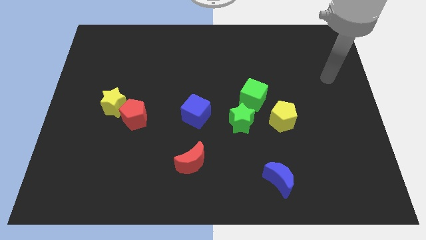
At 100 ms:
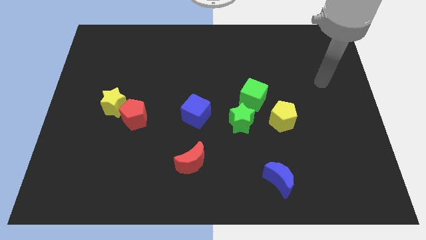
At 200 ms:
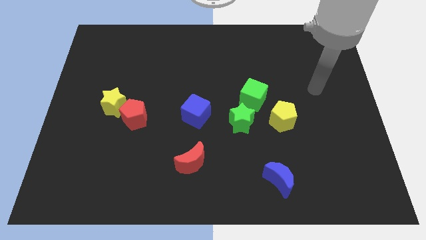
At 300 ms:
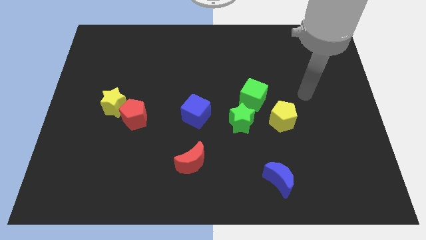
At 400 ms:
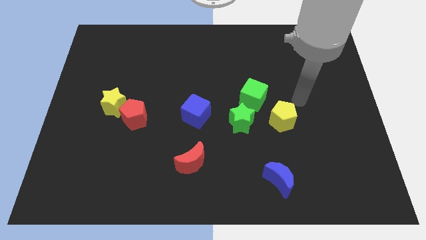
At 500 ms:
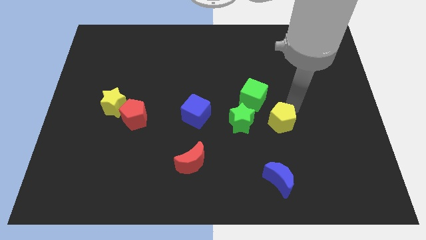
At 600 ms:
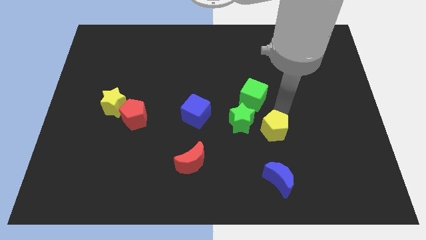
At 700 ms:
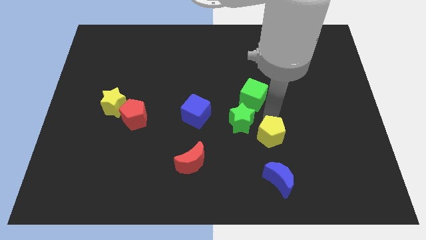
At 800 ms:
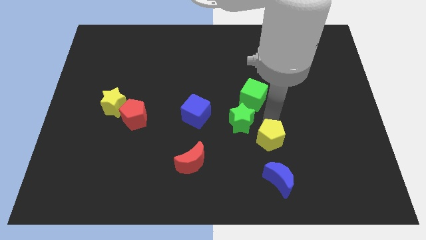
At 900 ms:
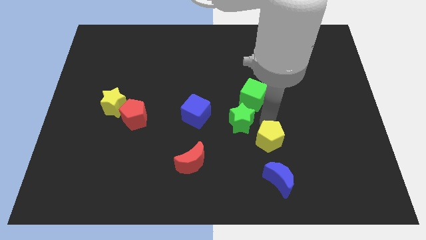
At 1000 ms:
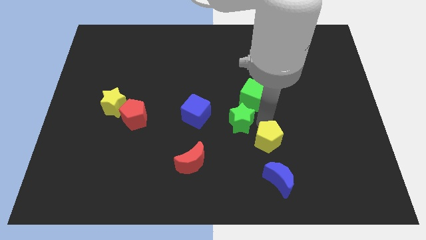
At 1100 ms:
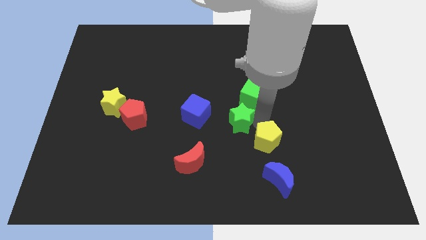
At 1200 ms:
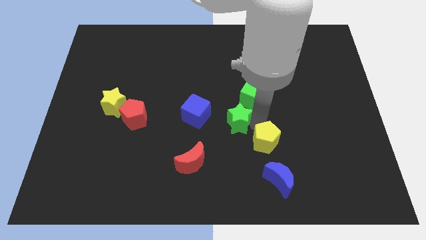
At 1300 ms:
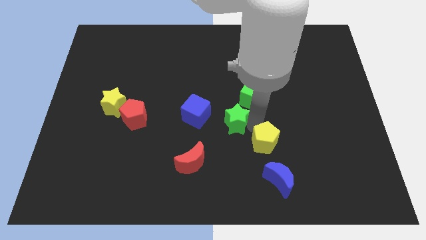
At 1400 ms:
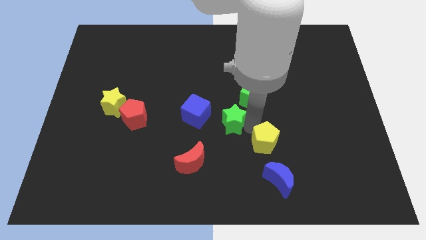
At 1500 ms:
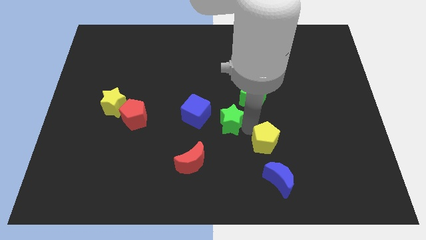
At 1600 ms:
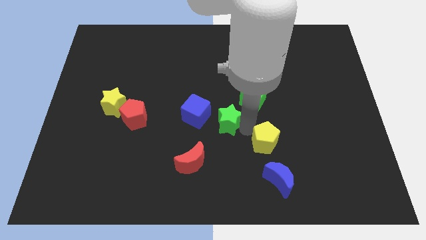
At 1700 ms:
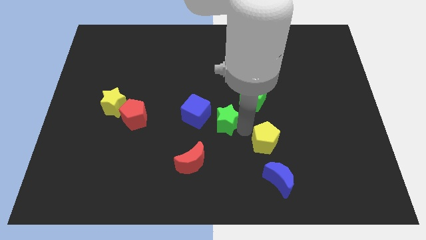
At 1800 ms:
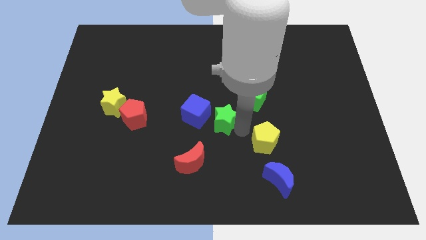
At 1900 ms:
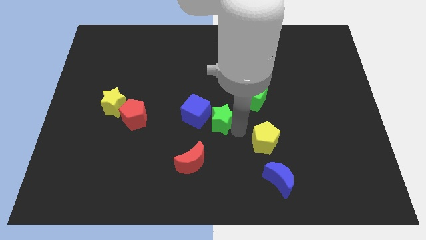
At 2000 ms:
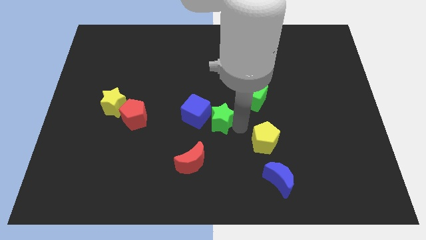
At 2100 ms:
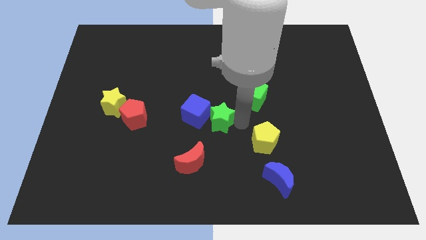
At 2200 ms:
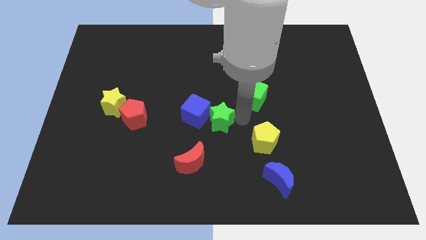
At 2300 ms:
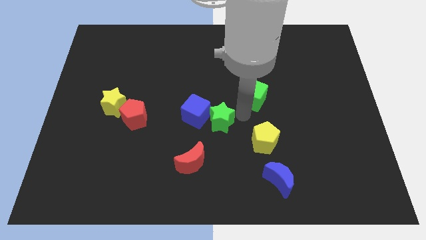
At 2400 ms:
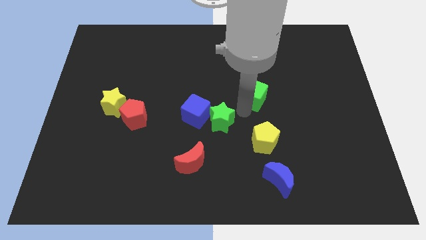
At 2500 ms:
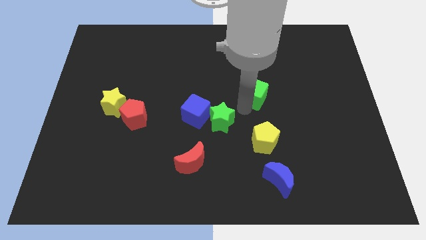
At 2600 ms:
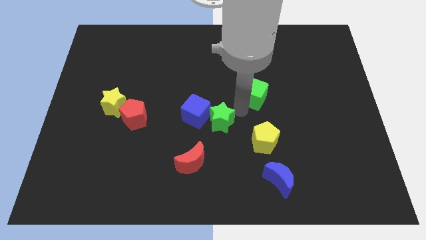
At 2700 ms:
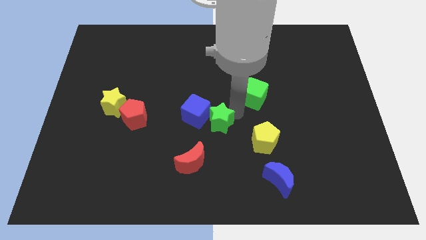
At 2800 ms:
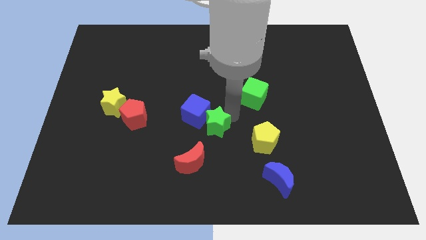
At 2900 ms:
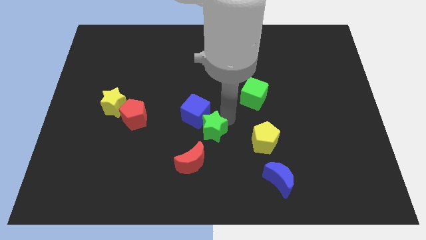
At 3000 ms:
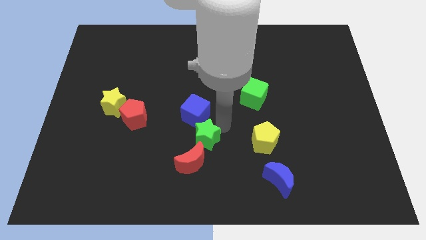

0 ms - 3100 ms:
move the green star to the left a little

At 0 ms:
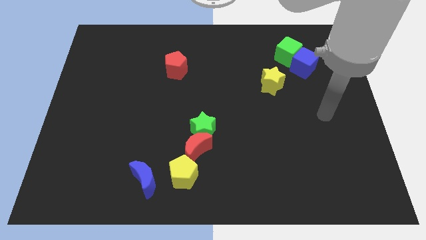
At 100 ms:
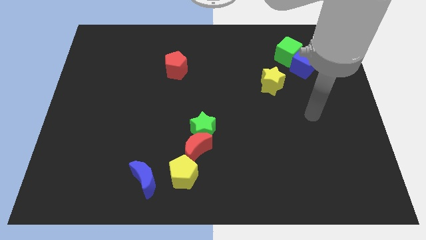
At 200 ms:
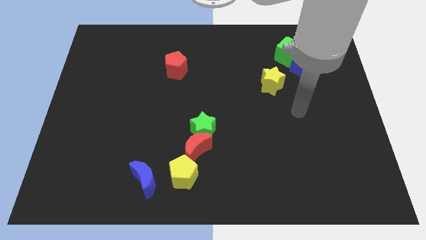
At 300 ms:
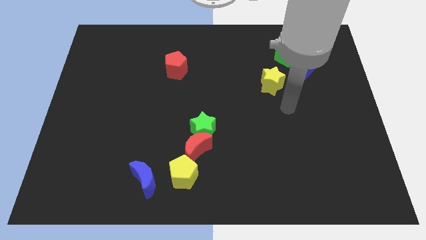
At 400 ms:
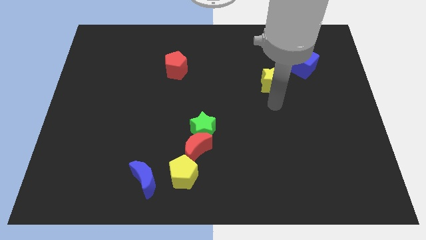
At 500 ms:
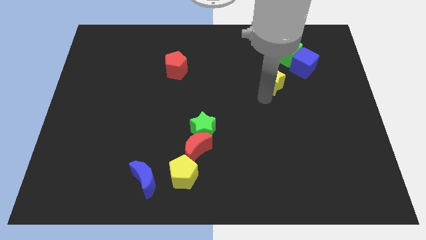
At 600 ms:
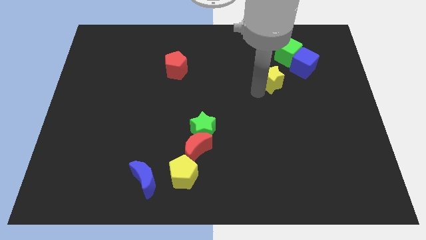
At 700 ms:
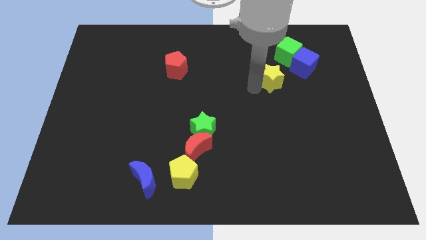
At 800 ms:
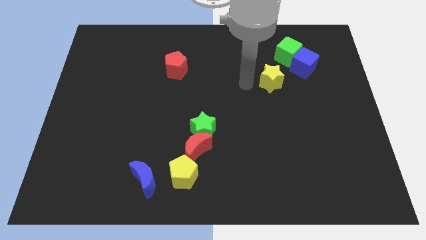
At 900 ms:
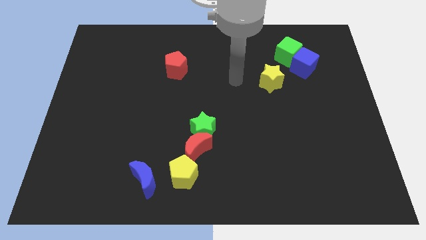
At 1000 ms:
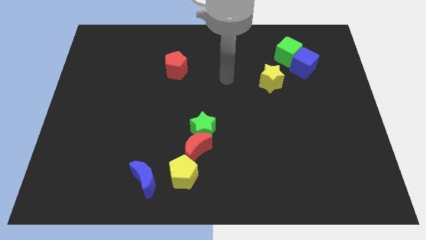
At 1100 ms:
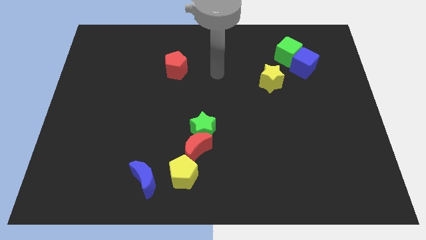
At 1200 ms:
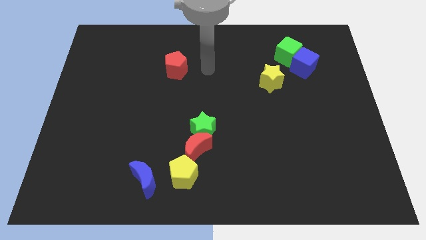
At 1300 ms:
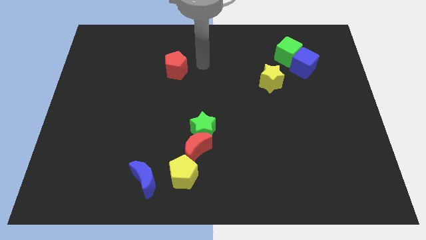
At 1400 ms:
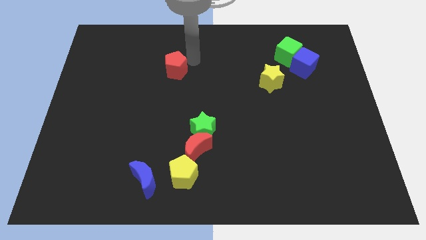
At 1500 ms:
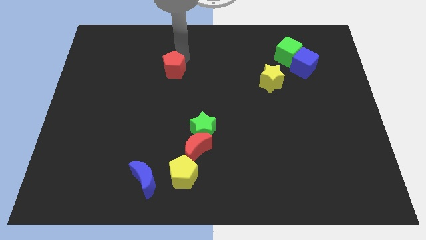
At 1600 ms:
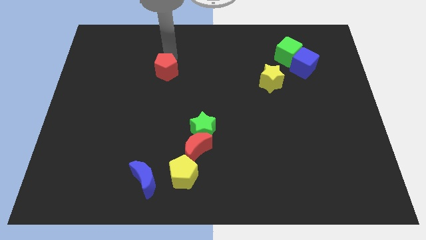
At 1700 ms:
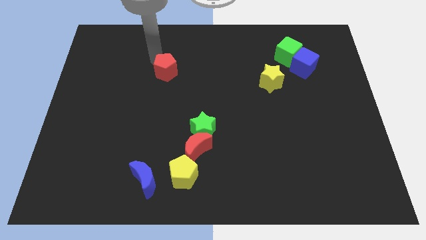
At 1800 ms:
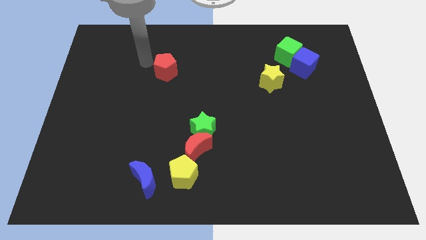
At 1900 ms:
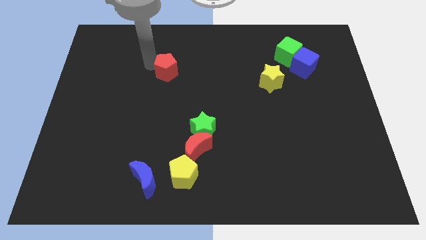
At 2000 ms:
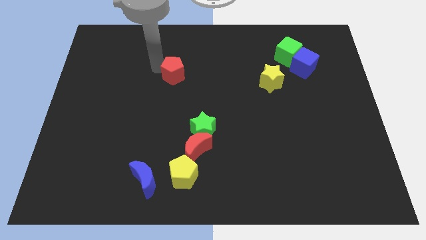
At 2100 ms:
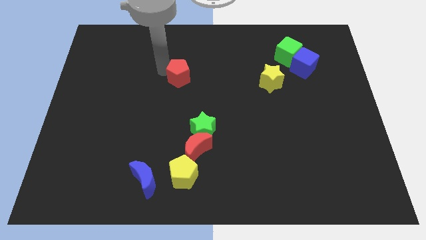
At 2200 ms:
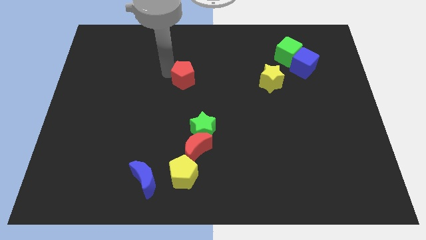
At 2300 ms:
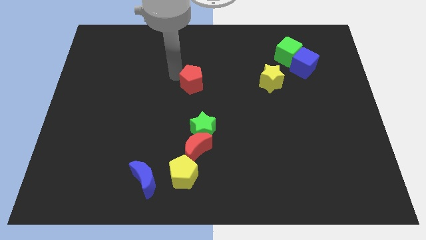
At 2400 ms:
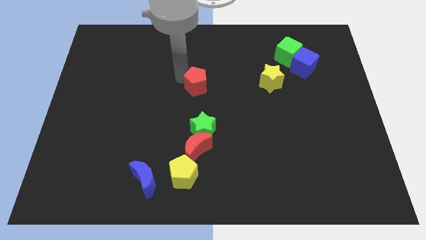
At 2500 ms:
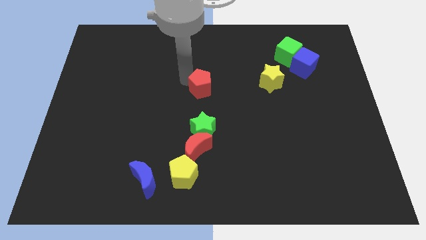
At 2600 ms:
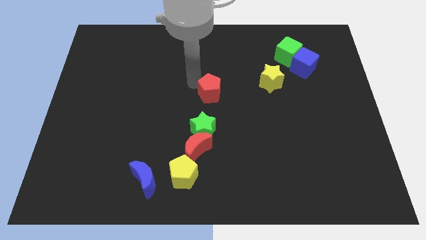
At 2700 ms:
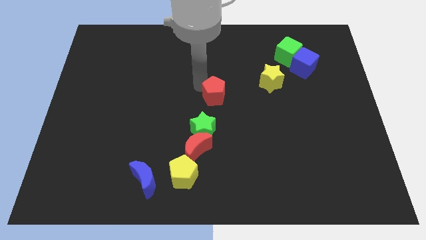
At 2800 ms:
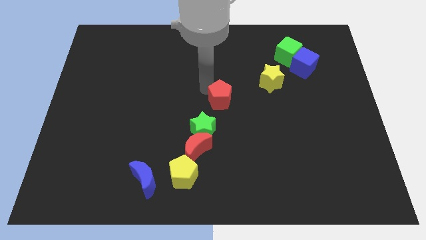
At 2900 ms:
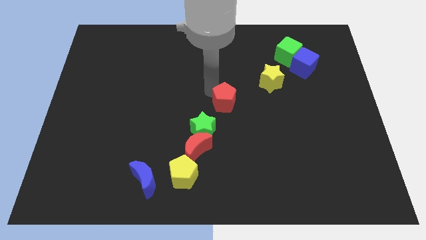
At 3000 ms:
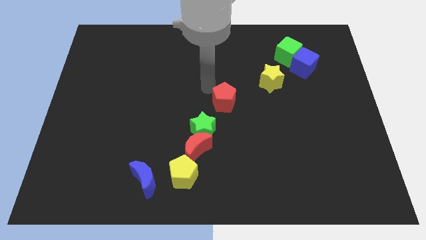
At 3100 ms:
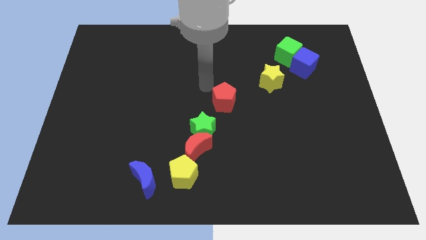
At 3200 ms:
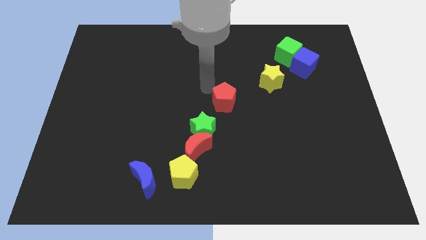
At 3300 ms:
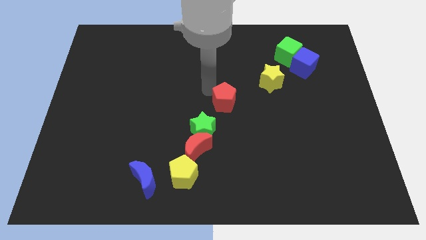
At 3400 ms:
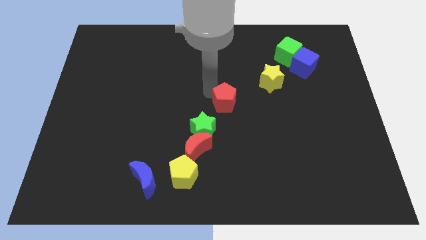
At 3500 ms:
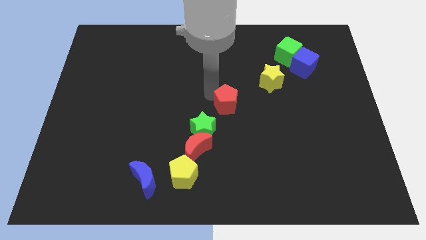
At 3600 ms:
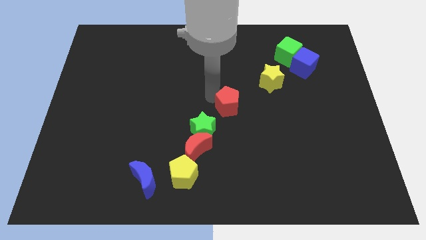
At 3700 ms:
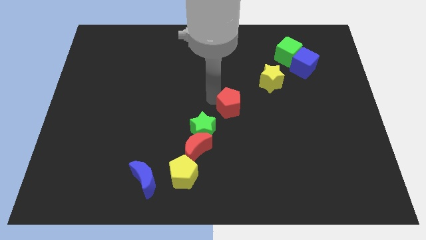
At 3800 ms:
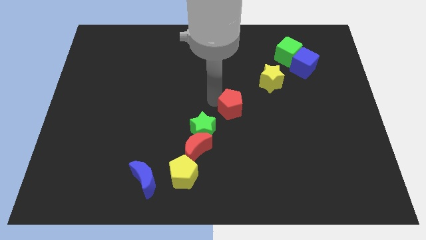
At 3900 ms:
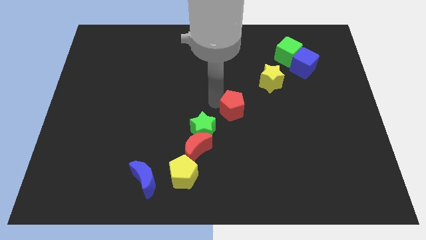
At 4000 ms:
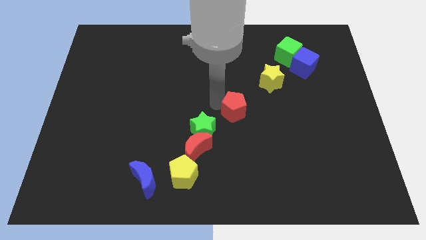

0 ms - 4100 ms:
slide the red pentagon downwards and to the right diagonally

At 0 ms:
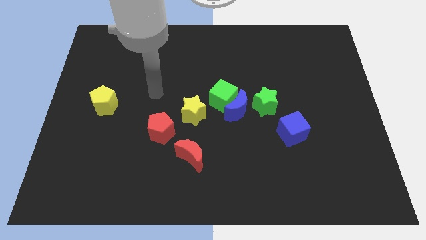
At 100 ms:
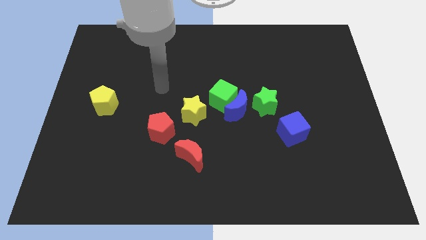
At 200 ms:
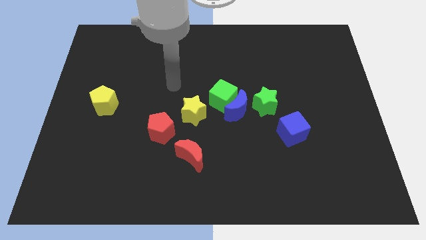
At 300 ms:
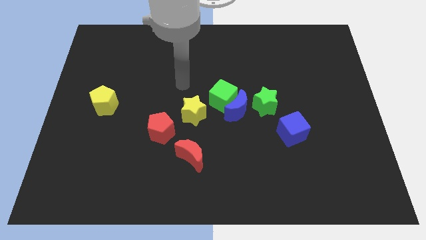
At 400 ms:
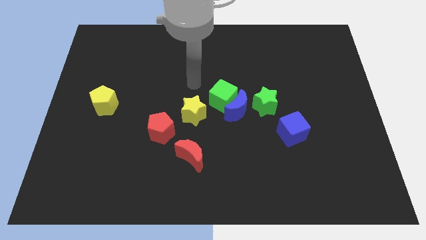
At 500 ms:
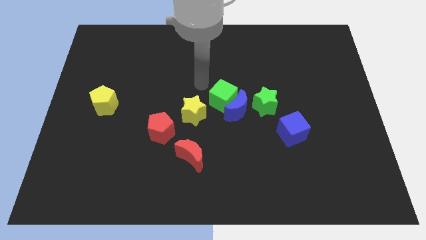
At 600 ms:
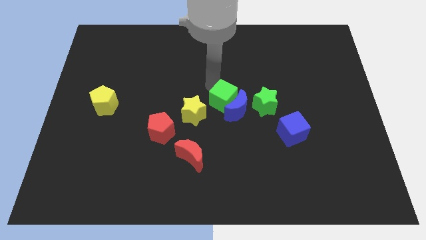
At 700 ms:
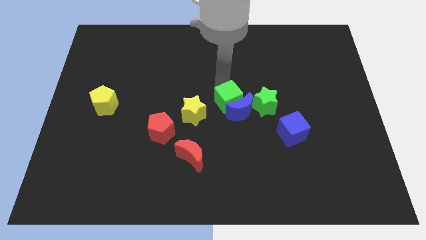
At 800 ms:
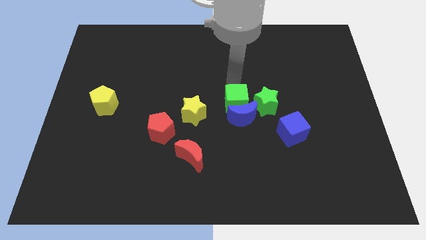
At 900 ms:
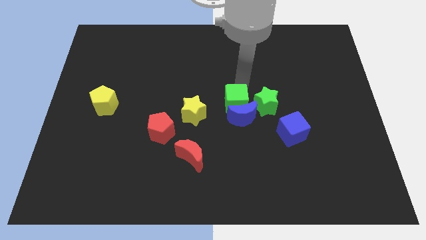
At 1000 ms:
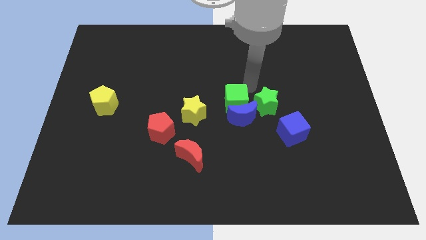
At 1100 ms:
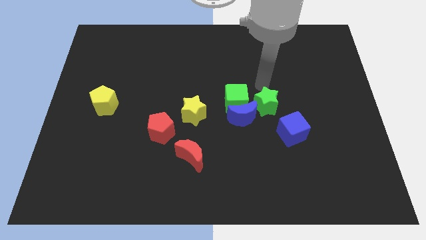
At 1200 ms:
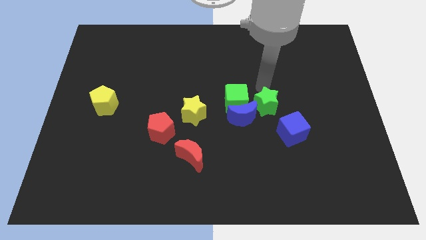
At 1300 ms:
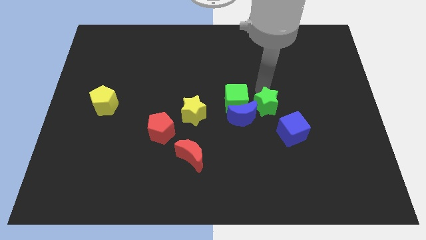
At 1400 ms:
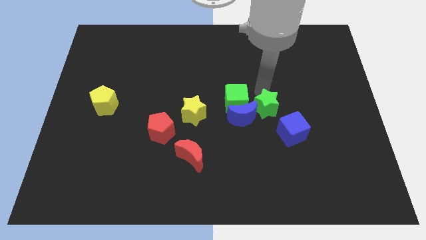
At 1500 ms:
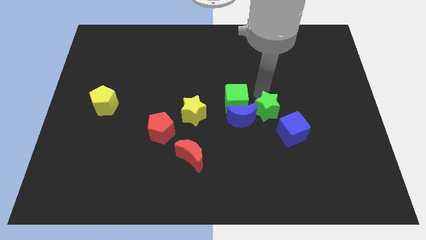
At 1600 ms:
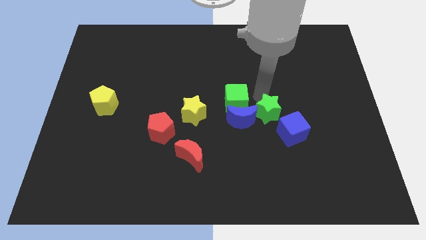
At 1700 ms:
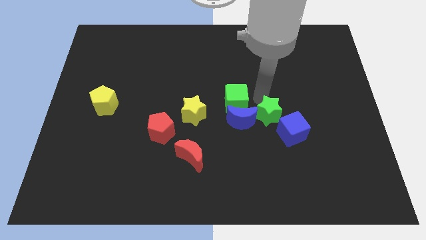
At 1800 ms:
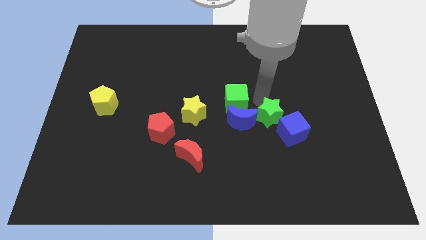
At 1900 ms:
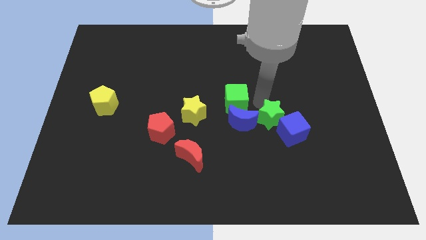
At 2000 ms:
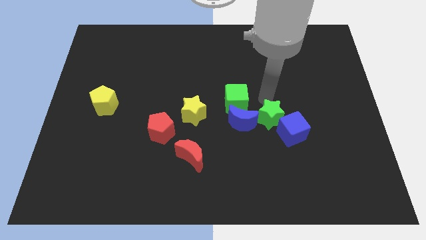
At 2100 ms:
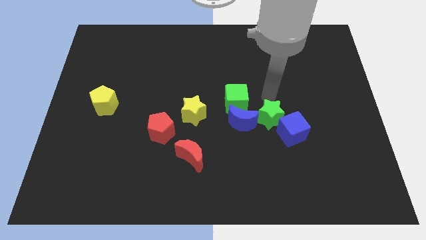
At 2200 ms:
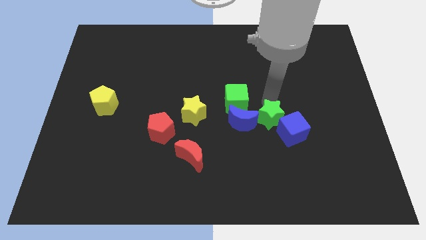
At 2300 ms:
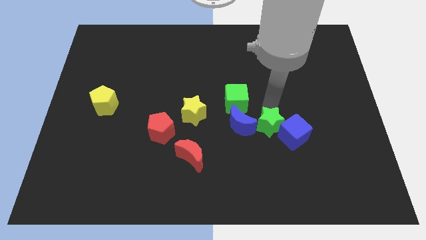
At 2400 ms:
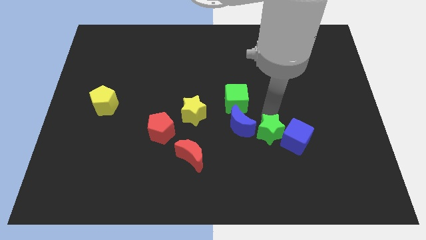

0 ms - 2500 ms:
slightly slide the green star down
